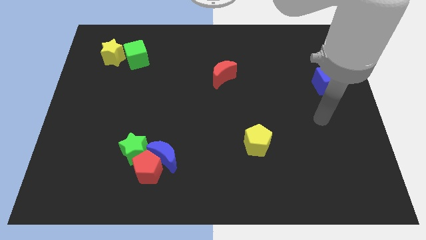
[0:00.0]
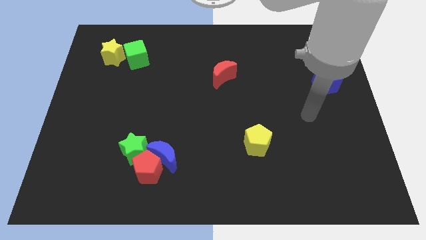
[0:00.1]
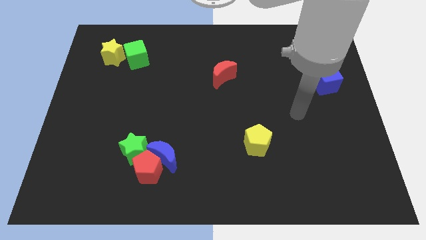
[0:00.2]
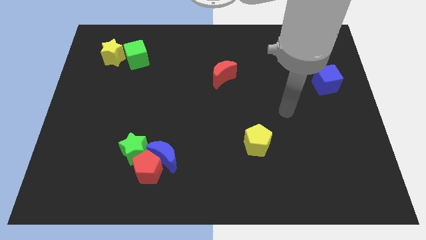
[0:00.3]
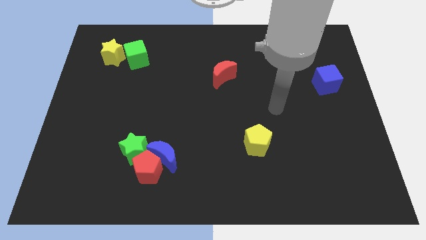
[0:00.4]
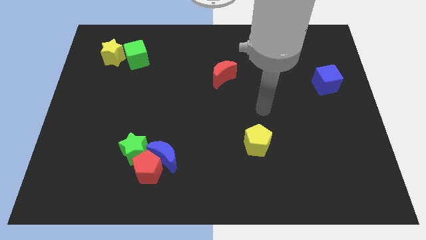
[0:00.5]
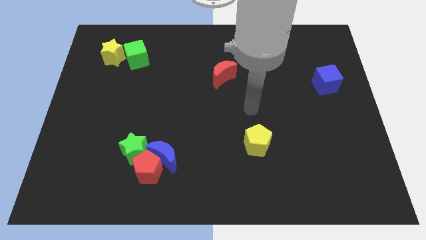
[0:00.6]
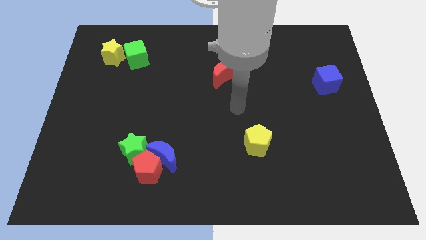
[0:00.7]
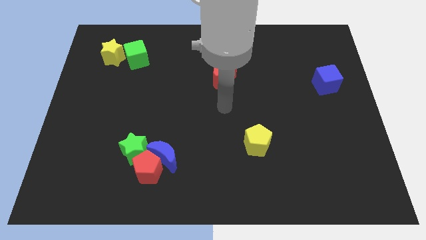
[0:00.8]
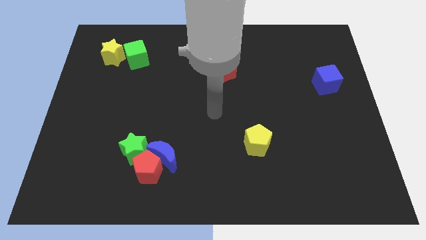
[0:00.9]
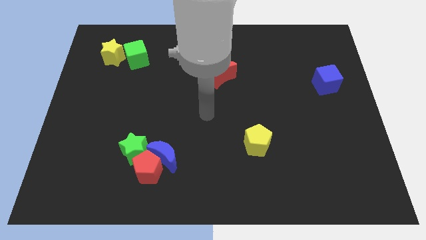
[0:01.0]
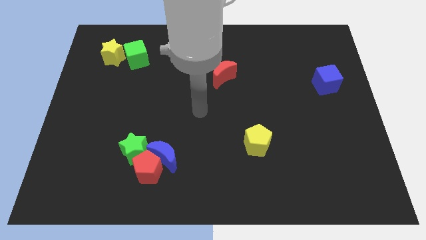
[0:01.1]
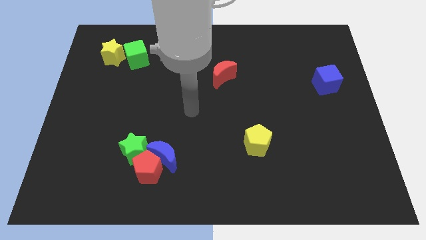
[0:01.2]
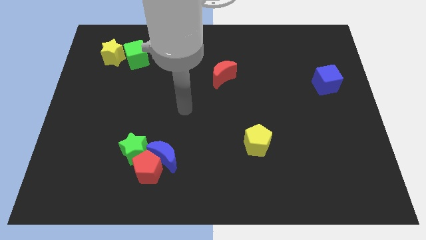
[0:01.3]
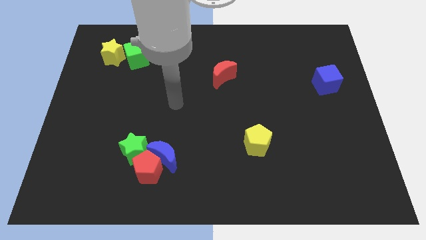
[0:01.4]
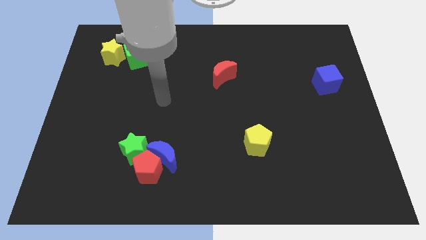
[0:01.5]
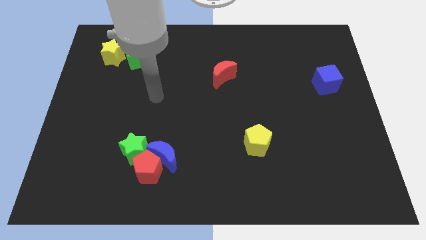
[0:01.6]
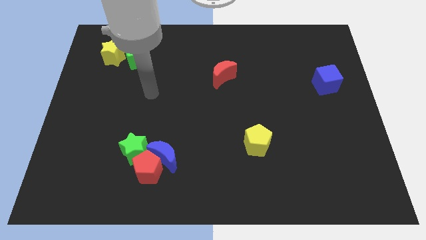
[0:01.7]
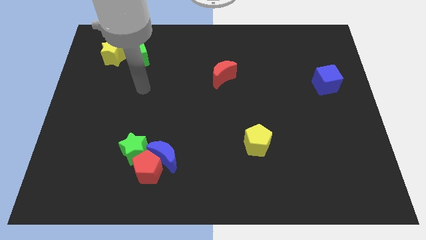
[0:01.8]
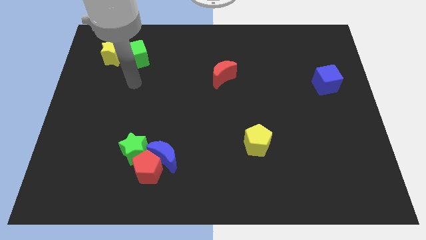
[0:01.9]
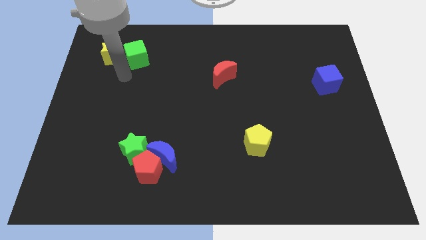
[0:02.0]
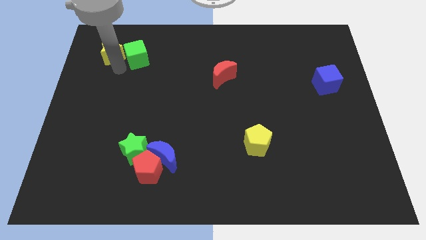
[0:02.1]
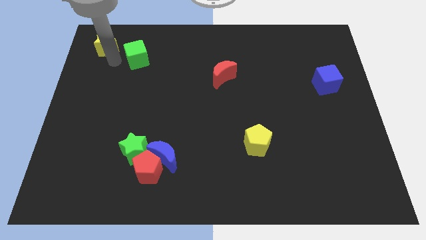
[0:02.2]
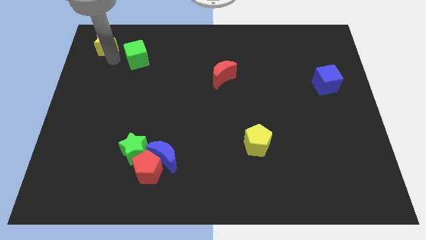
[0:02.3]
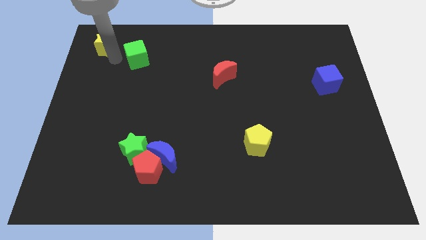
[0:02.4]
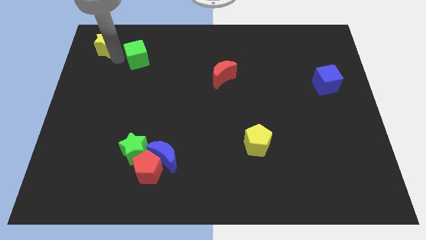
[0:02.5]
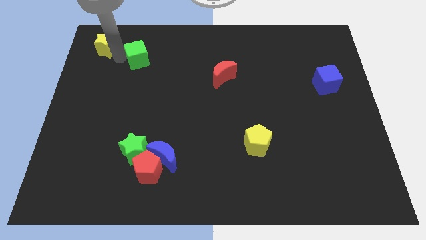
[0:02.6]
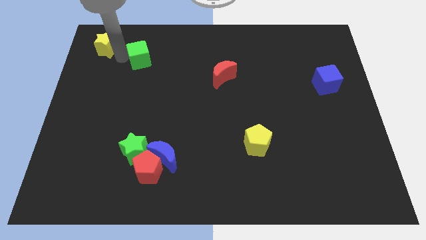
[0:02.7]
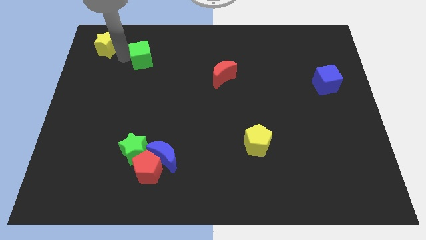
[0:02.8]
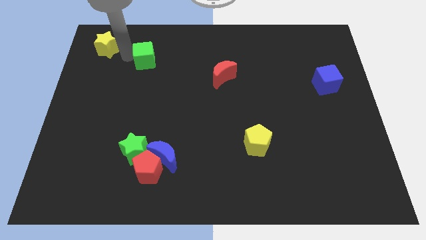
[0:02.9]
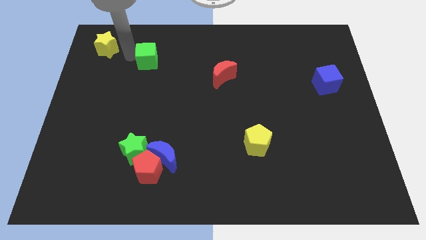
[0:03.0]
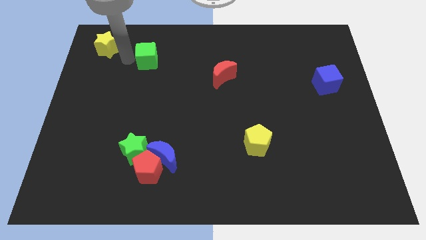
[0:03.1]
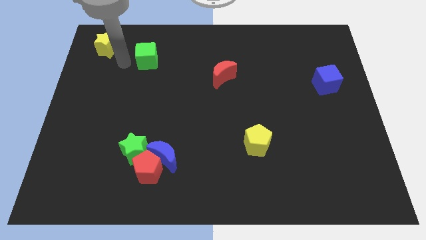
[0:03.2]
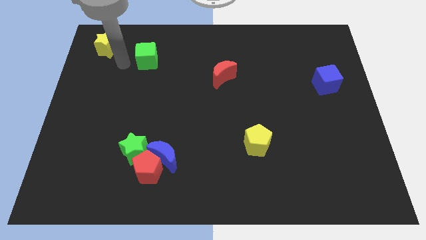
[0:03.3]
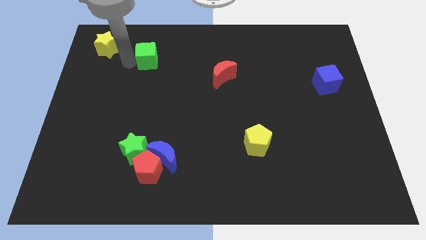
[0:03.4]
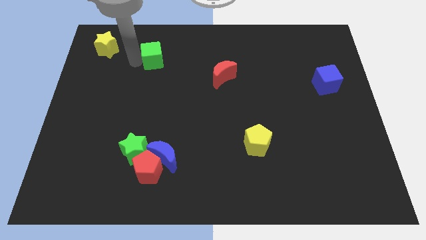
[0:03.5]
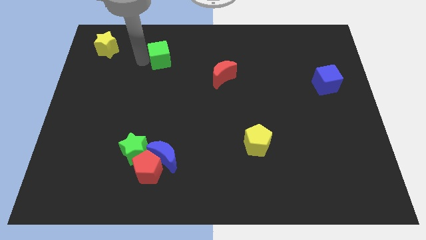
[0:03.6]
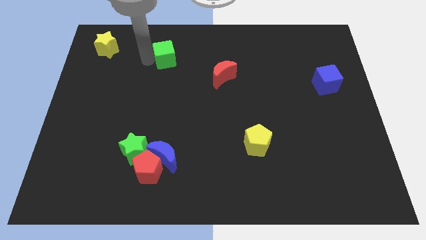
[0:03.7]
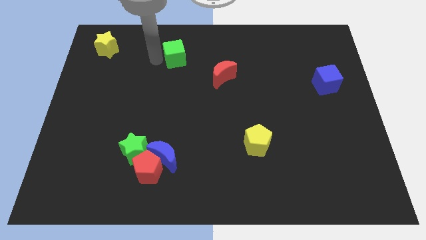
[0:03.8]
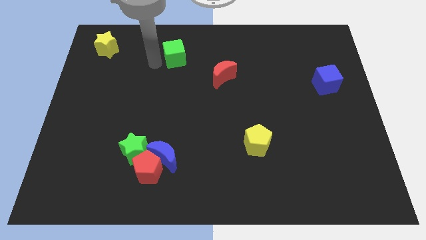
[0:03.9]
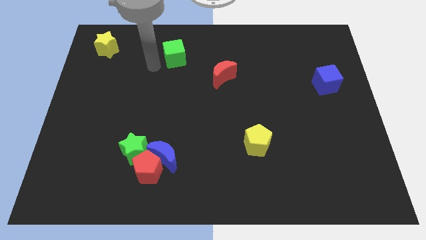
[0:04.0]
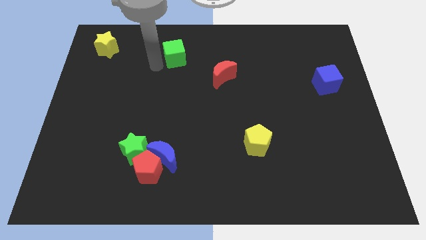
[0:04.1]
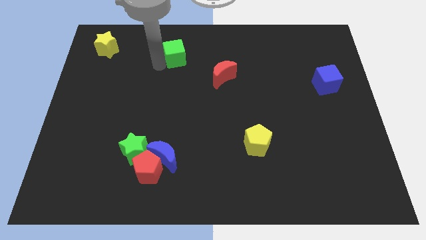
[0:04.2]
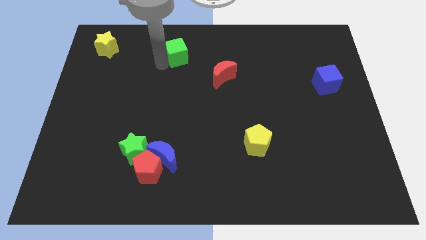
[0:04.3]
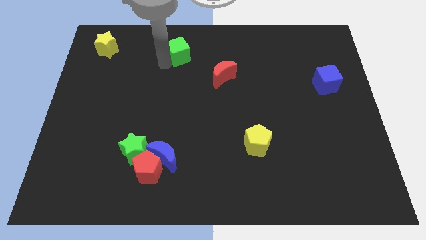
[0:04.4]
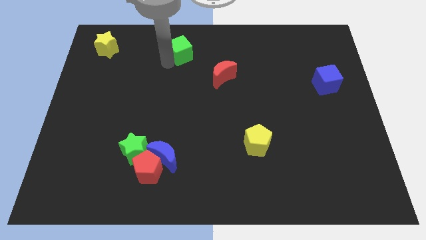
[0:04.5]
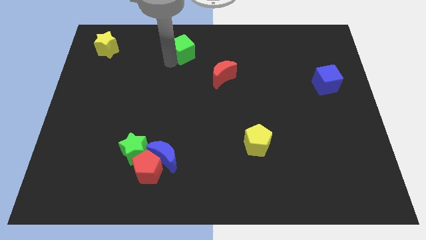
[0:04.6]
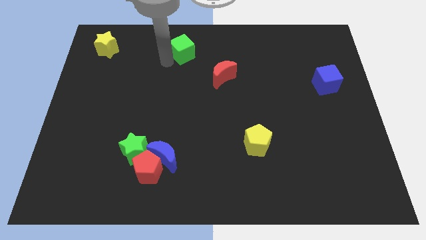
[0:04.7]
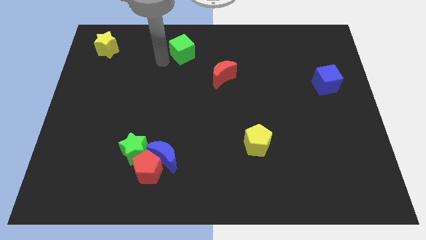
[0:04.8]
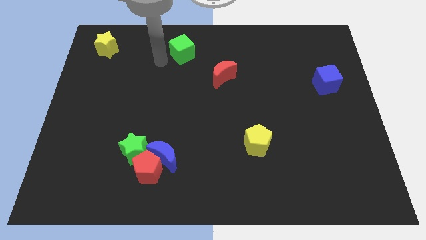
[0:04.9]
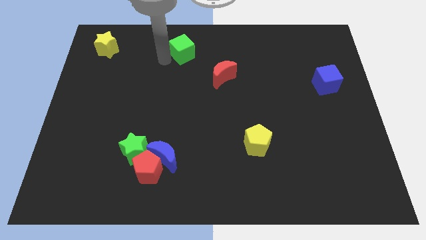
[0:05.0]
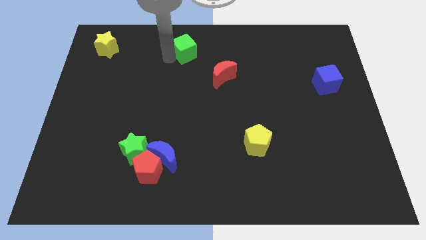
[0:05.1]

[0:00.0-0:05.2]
slide the green cube to the top side

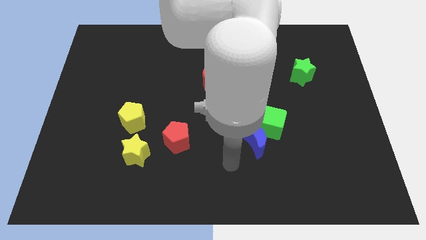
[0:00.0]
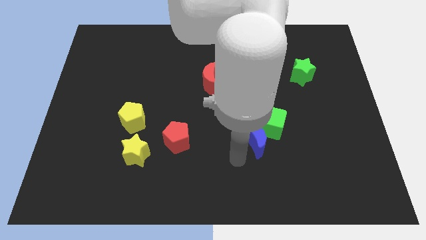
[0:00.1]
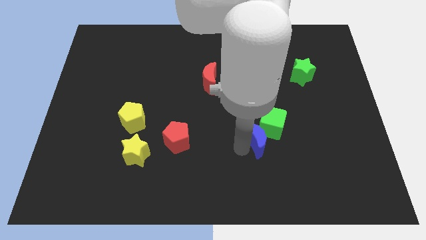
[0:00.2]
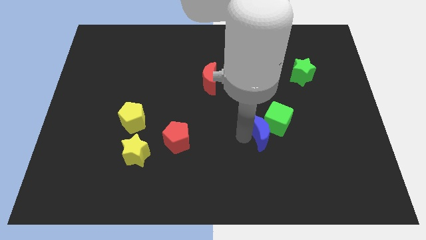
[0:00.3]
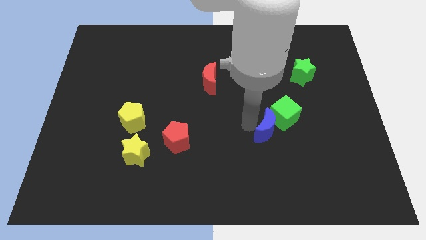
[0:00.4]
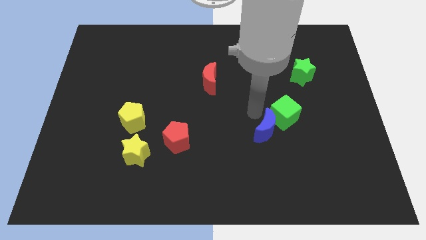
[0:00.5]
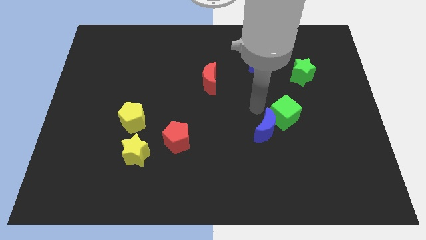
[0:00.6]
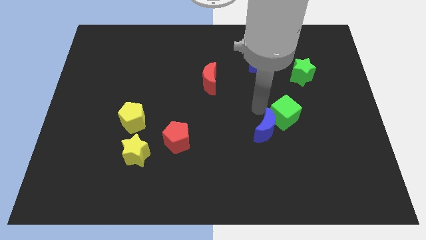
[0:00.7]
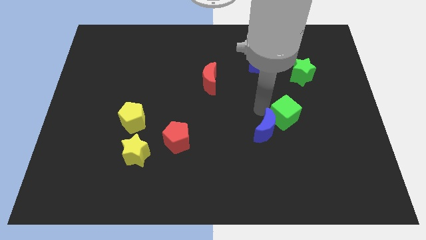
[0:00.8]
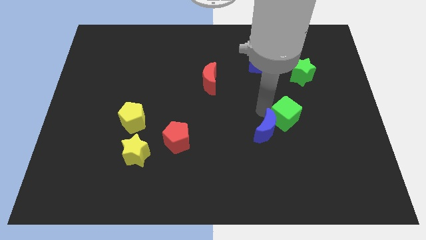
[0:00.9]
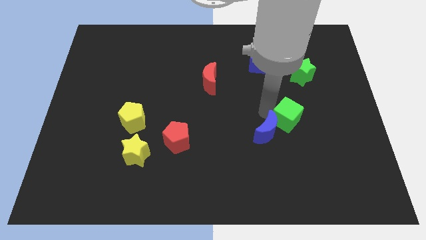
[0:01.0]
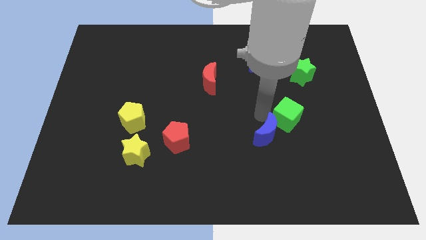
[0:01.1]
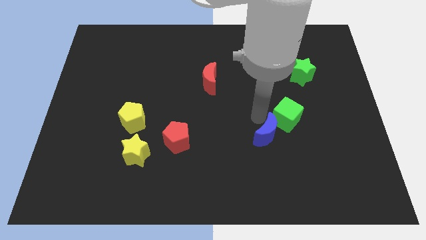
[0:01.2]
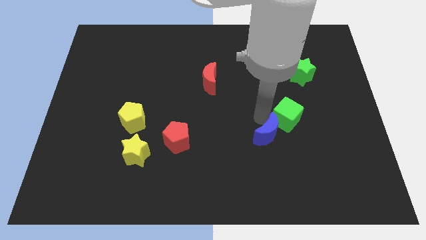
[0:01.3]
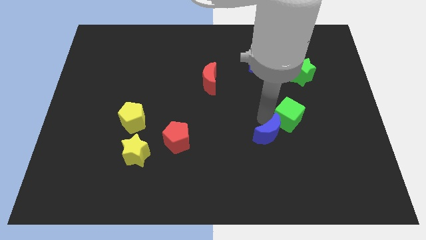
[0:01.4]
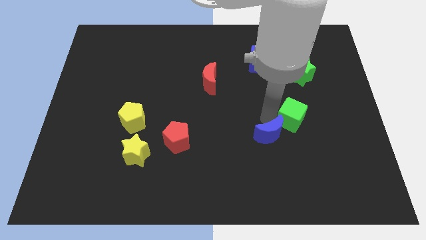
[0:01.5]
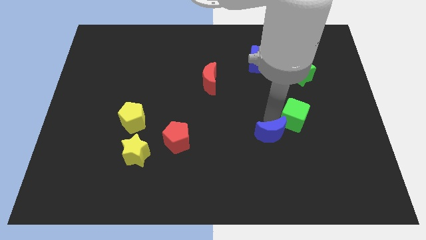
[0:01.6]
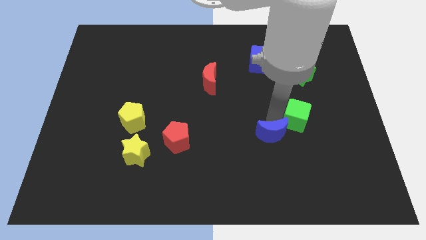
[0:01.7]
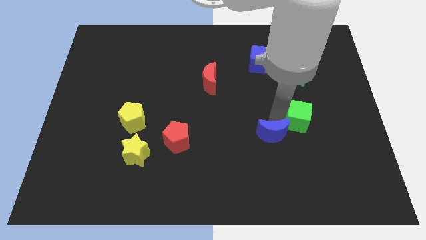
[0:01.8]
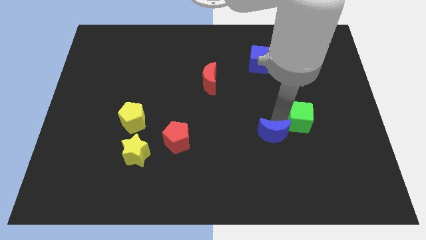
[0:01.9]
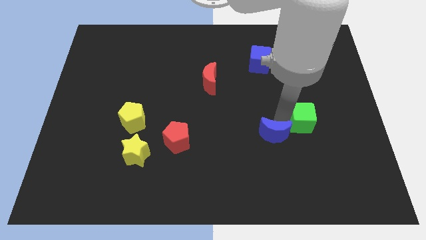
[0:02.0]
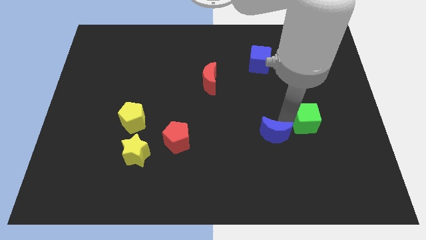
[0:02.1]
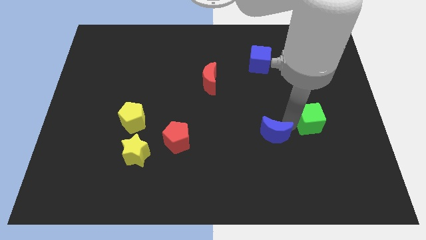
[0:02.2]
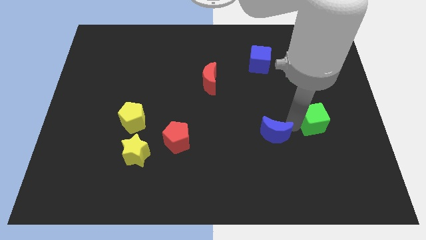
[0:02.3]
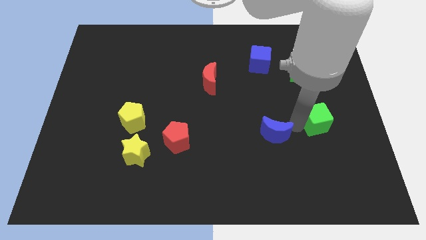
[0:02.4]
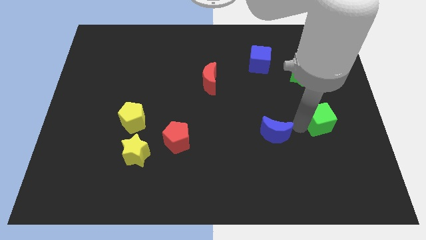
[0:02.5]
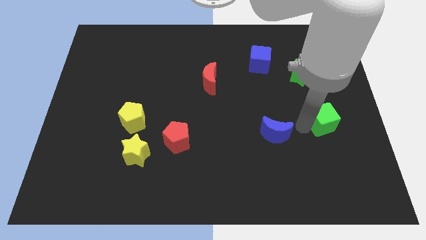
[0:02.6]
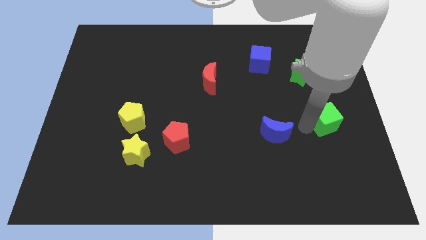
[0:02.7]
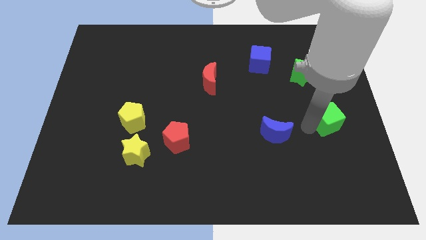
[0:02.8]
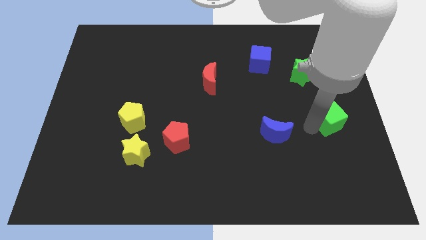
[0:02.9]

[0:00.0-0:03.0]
push the green cube to the right side
